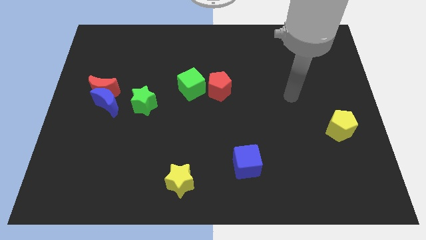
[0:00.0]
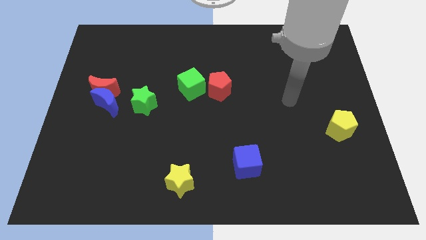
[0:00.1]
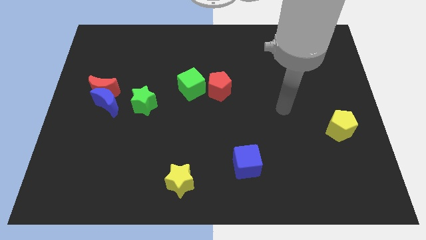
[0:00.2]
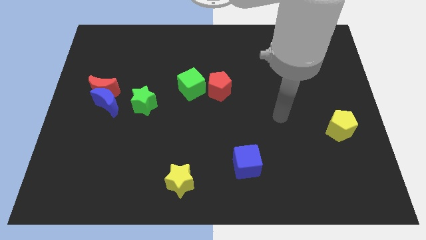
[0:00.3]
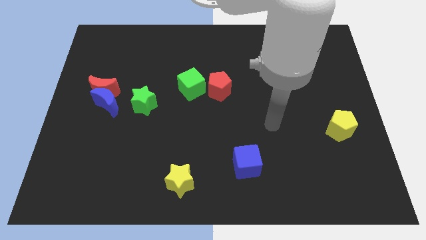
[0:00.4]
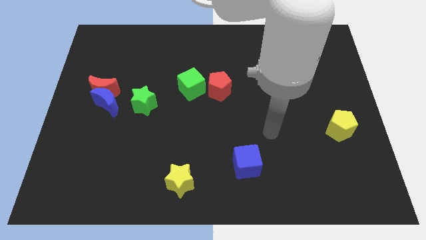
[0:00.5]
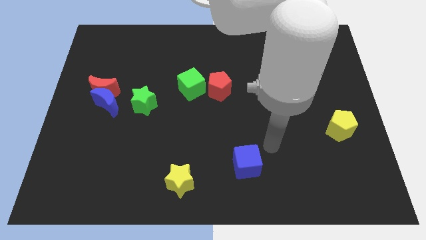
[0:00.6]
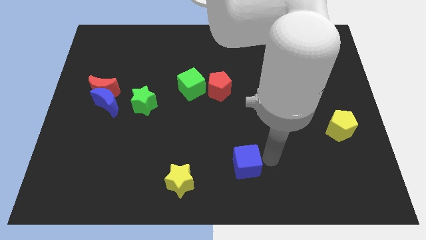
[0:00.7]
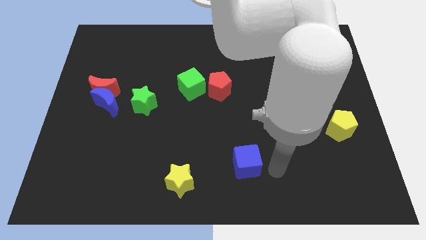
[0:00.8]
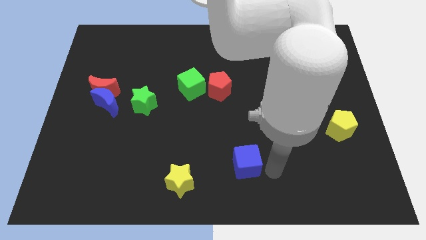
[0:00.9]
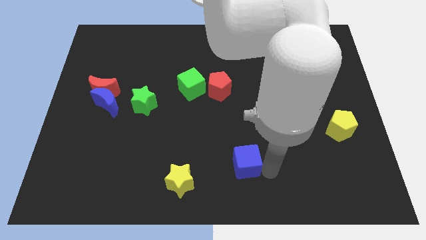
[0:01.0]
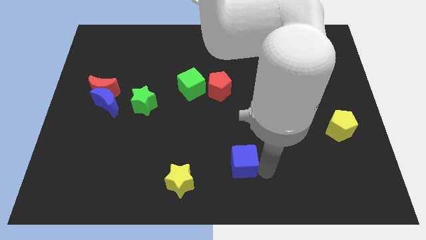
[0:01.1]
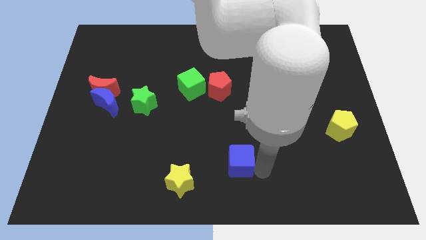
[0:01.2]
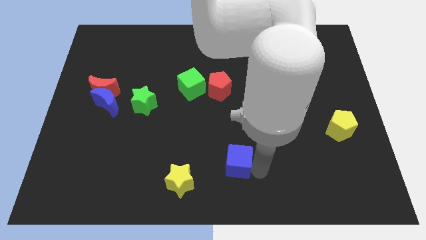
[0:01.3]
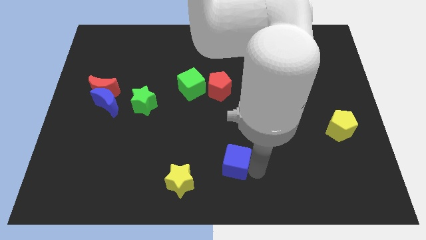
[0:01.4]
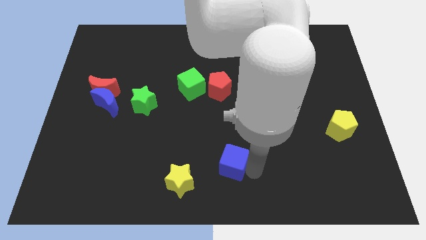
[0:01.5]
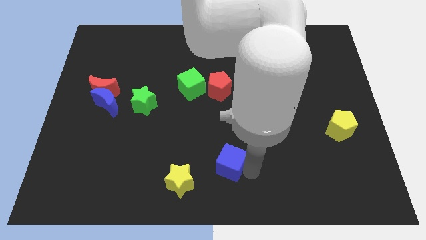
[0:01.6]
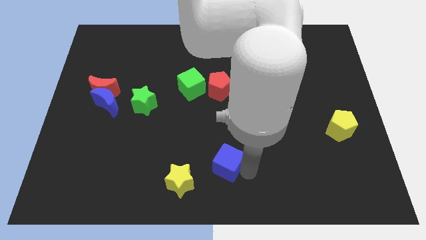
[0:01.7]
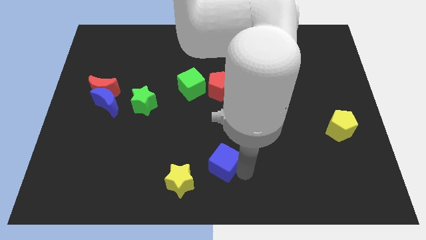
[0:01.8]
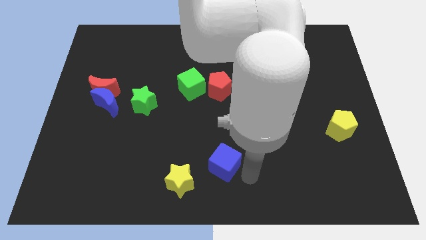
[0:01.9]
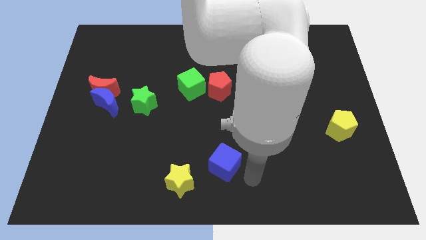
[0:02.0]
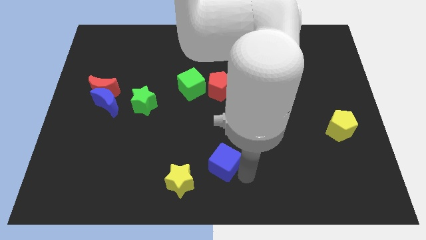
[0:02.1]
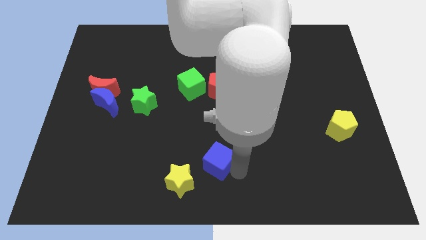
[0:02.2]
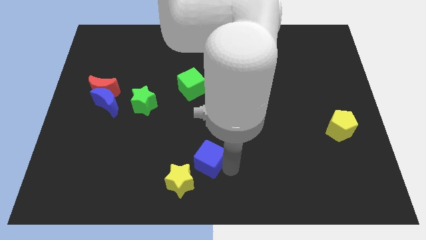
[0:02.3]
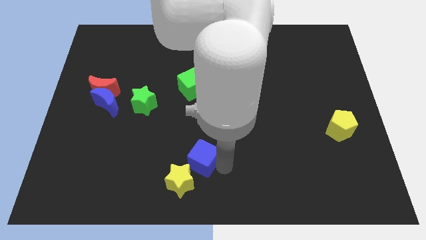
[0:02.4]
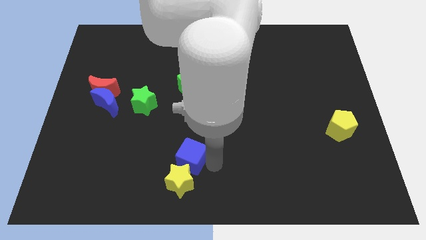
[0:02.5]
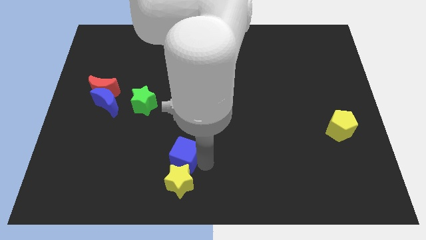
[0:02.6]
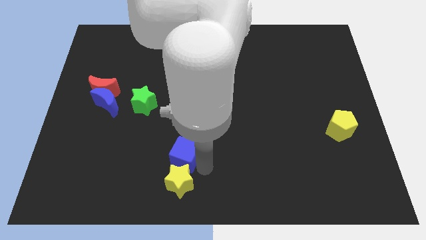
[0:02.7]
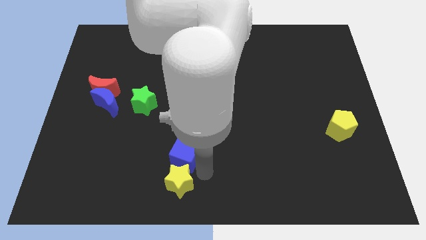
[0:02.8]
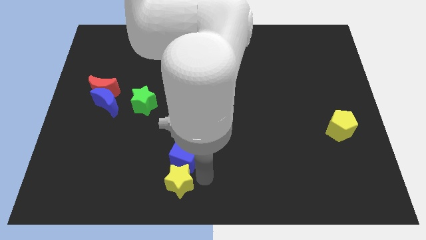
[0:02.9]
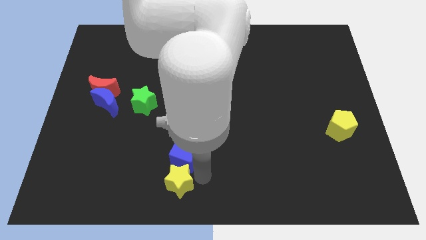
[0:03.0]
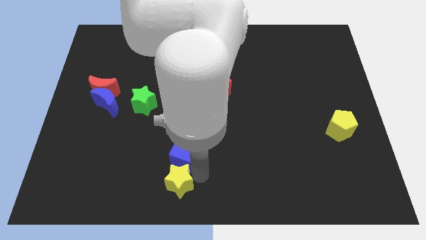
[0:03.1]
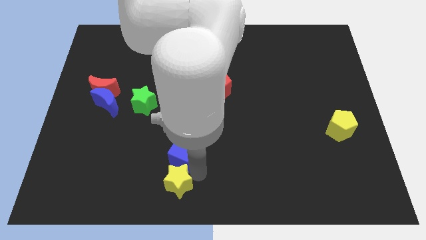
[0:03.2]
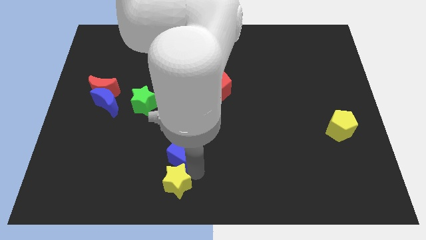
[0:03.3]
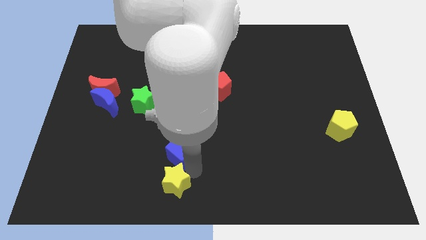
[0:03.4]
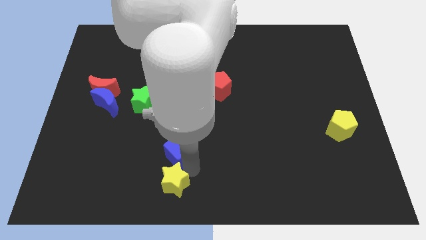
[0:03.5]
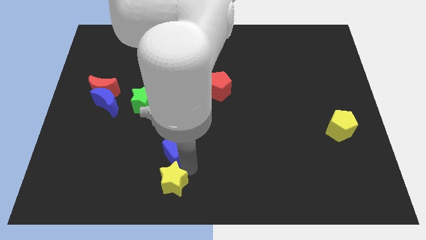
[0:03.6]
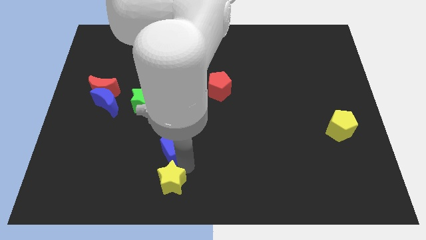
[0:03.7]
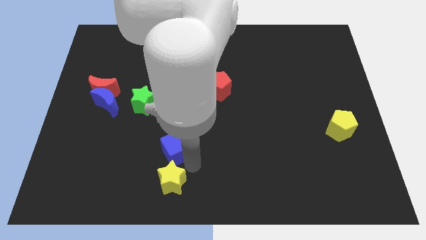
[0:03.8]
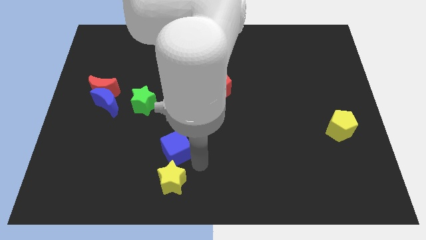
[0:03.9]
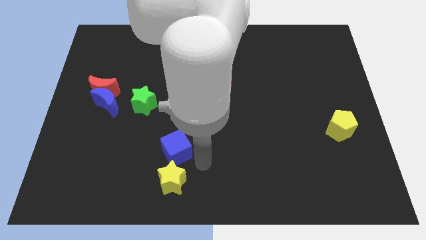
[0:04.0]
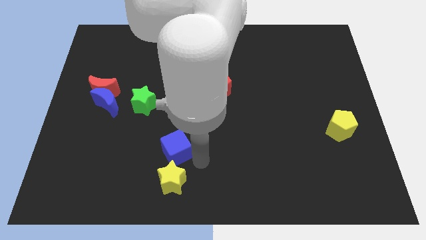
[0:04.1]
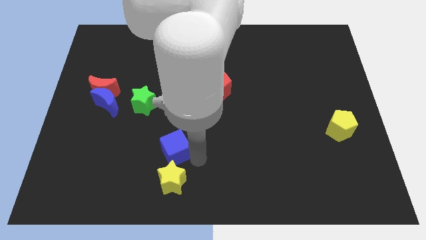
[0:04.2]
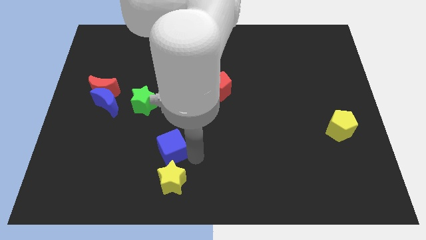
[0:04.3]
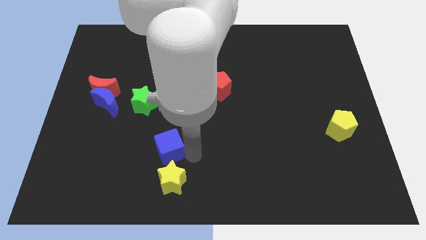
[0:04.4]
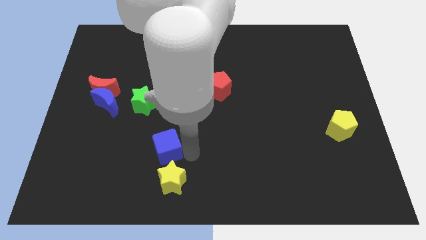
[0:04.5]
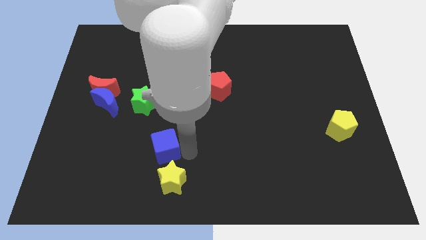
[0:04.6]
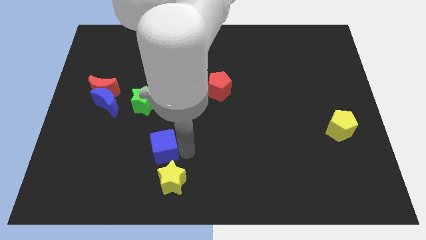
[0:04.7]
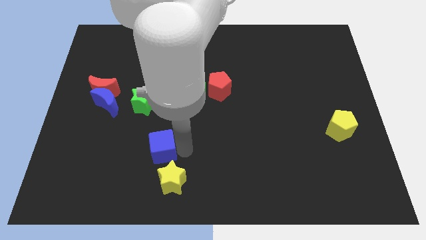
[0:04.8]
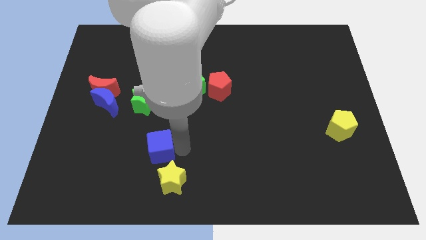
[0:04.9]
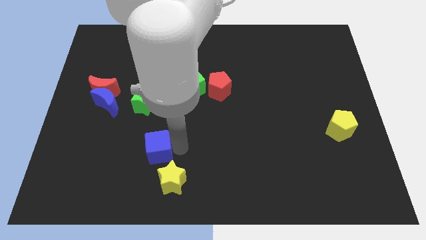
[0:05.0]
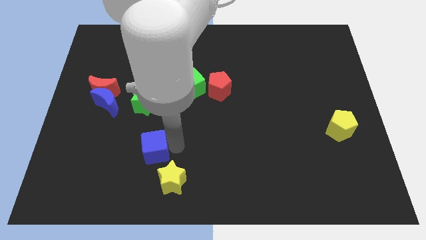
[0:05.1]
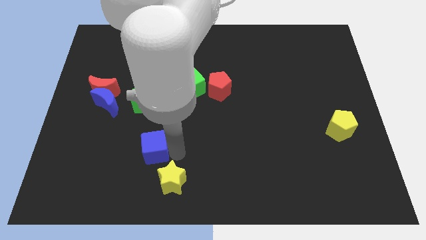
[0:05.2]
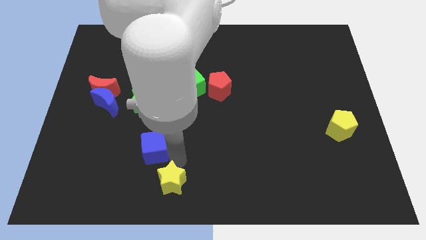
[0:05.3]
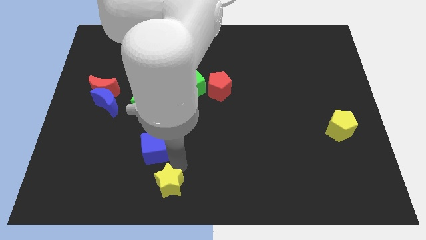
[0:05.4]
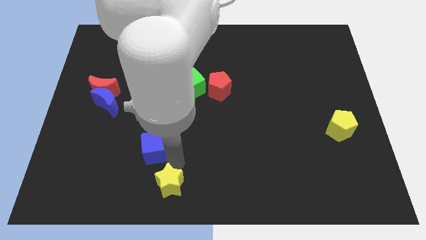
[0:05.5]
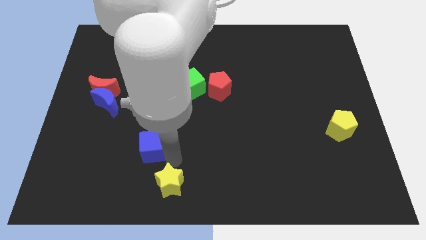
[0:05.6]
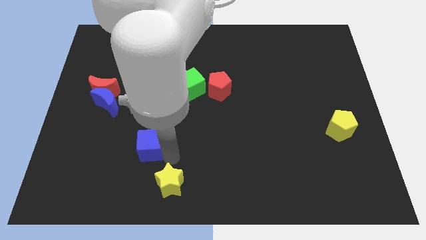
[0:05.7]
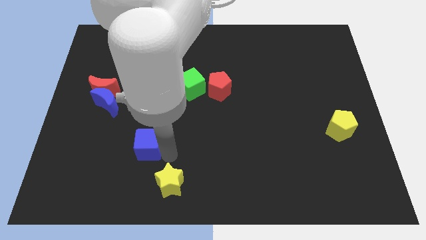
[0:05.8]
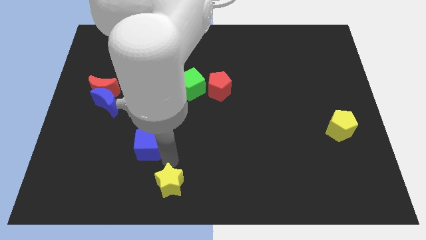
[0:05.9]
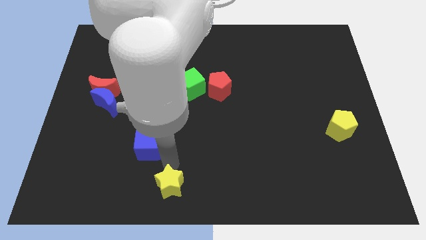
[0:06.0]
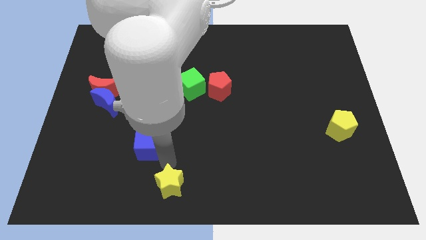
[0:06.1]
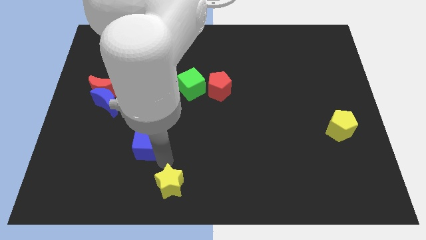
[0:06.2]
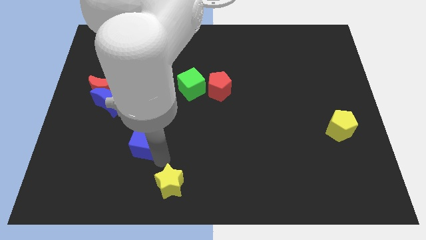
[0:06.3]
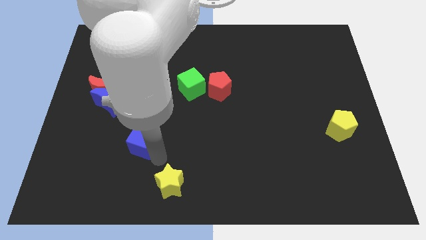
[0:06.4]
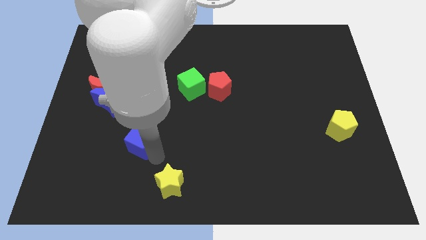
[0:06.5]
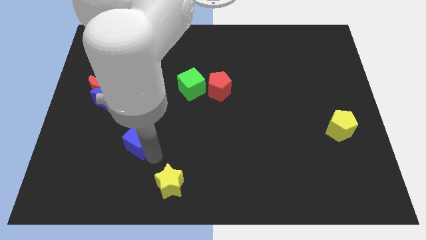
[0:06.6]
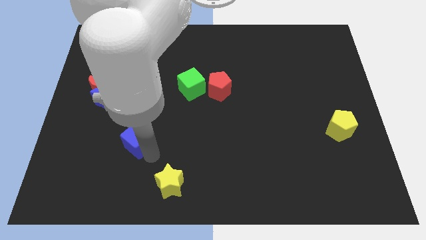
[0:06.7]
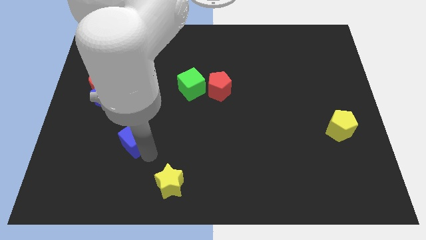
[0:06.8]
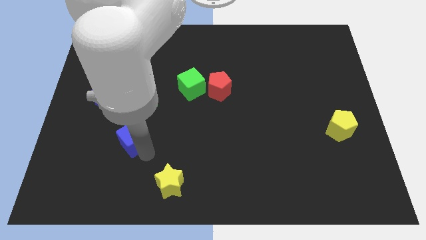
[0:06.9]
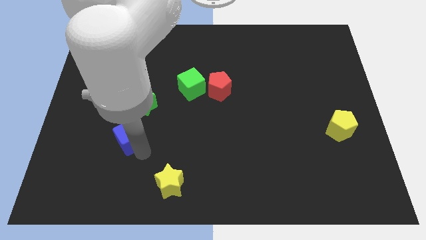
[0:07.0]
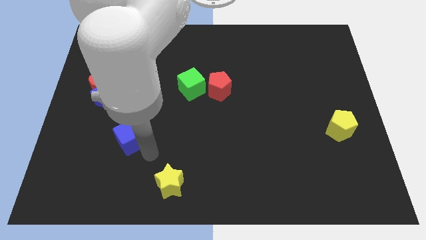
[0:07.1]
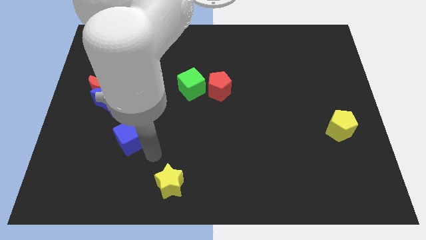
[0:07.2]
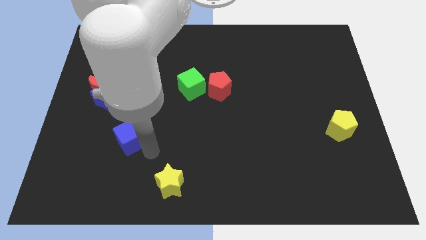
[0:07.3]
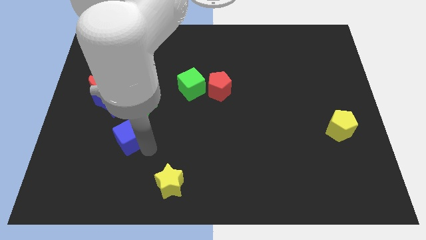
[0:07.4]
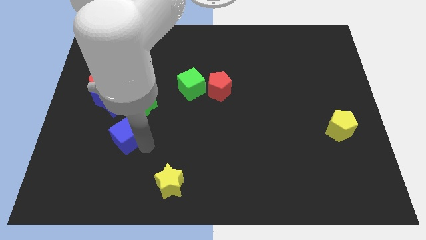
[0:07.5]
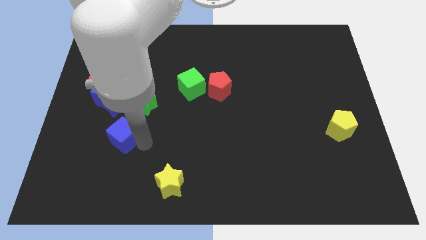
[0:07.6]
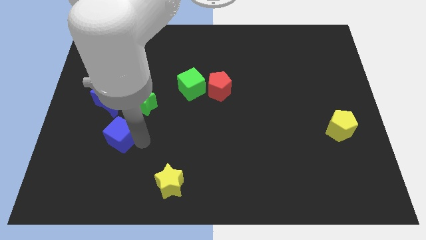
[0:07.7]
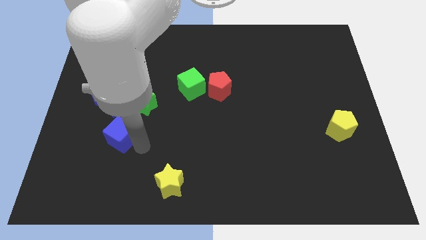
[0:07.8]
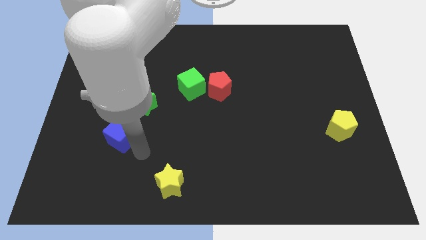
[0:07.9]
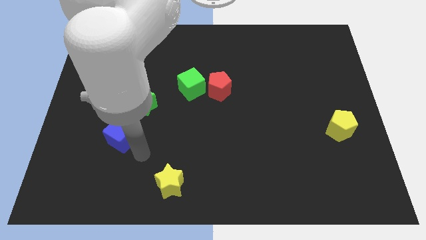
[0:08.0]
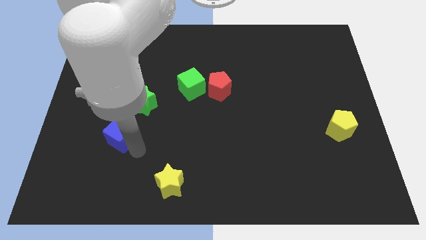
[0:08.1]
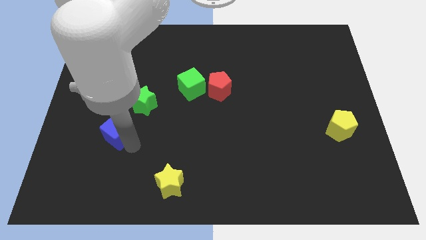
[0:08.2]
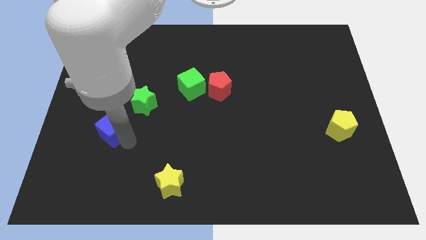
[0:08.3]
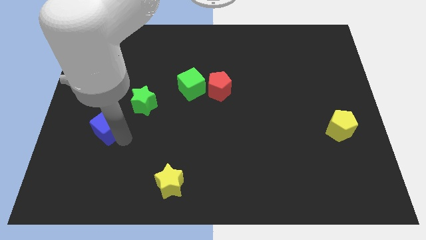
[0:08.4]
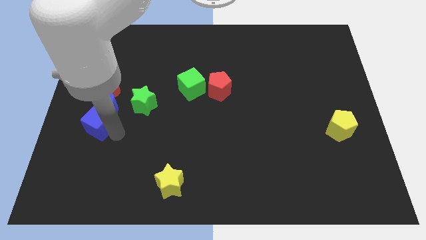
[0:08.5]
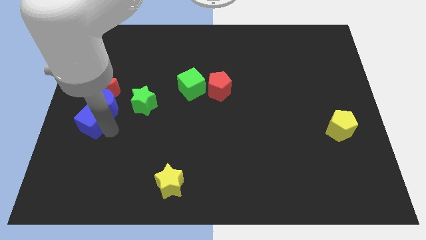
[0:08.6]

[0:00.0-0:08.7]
push the blue cube to the center left
